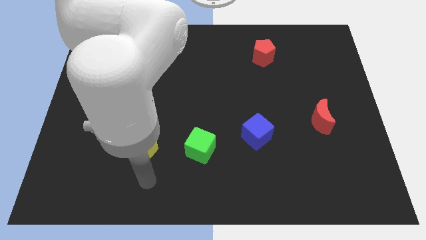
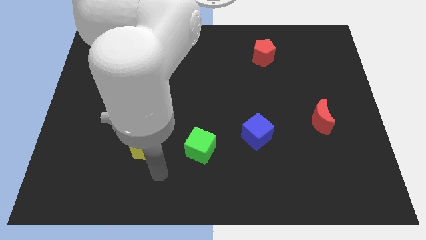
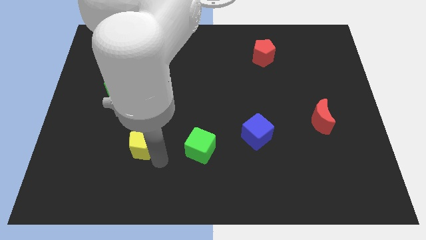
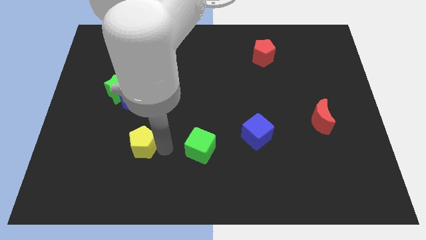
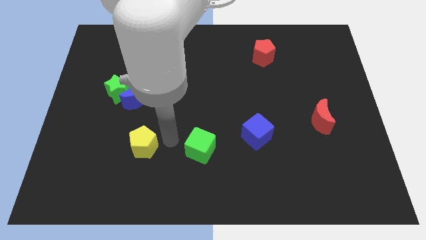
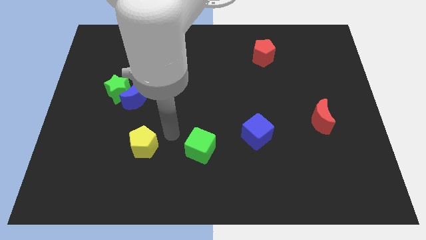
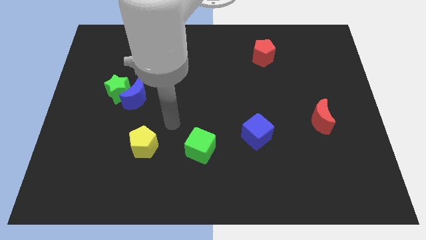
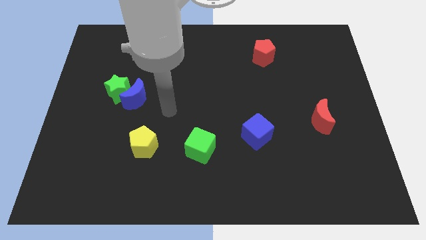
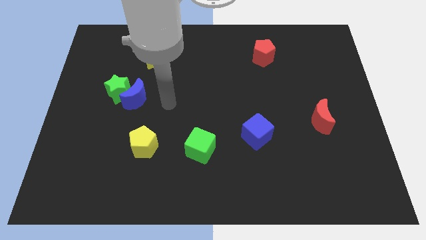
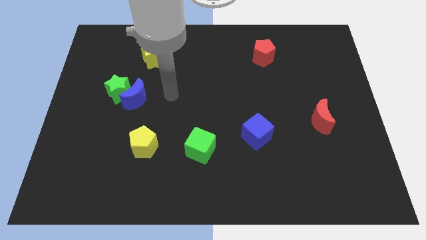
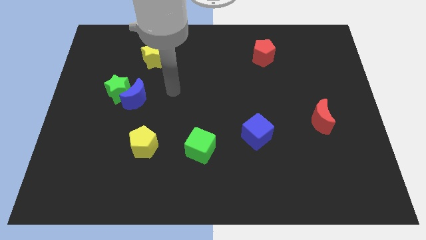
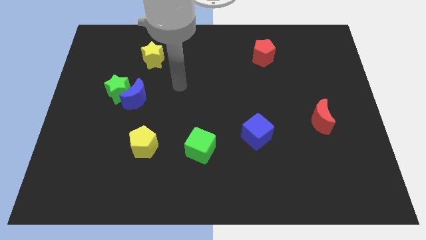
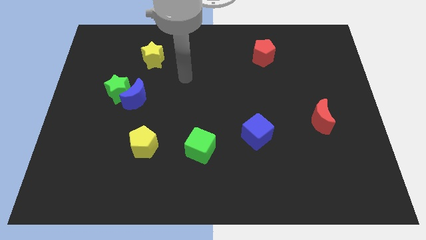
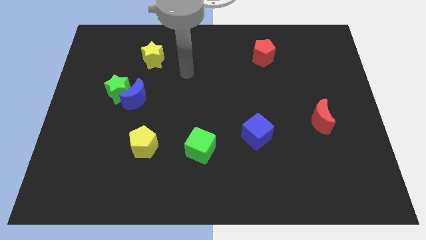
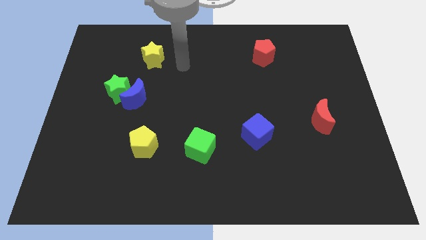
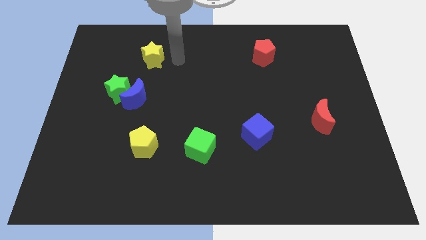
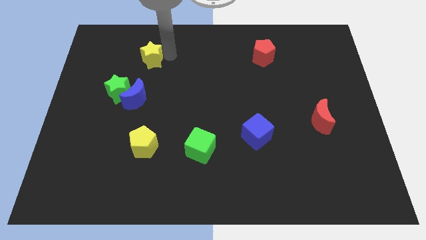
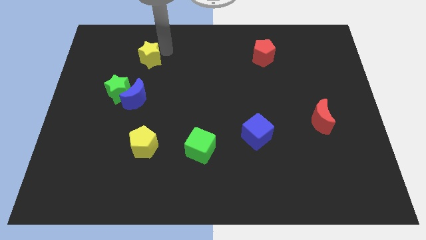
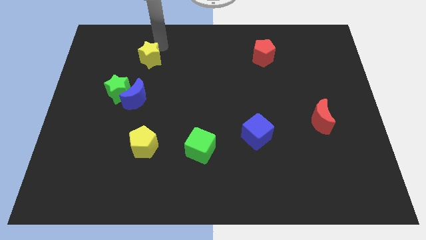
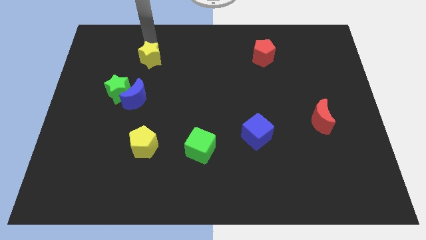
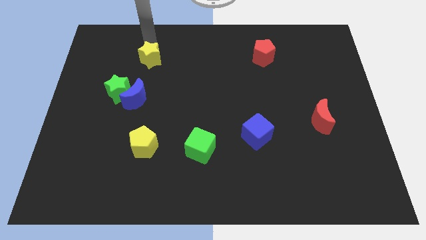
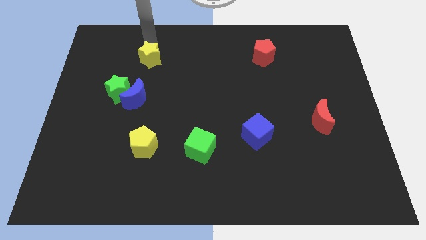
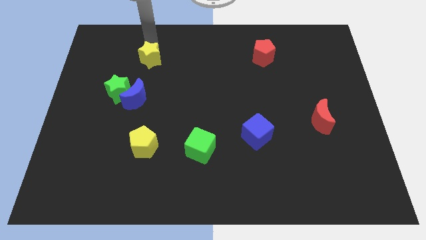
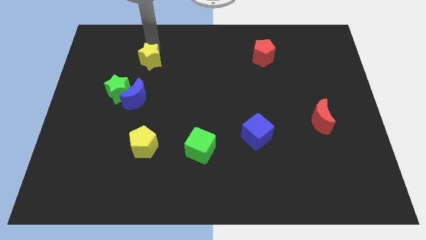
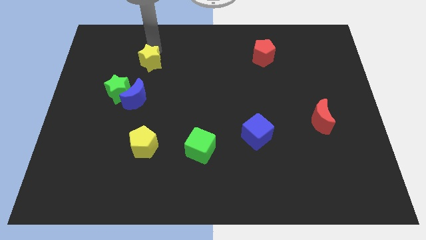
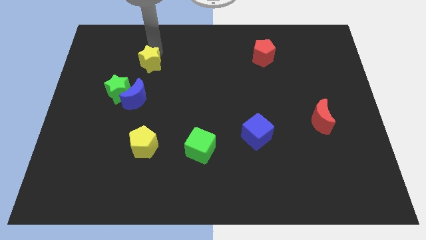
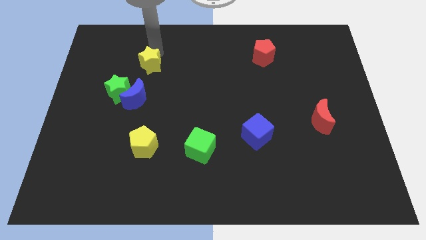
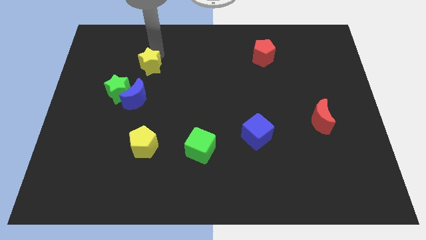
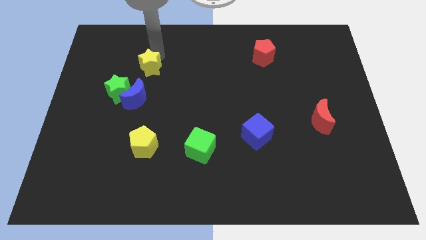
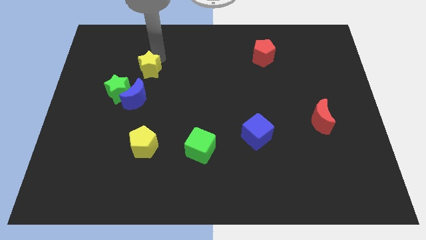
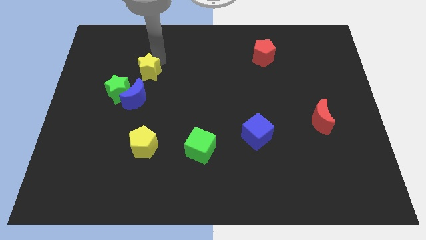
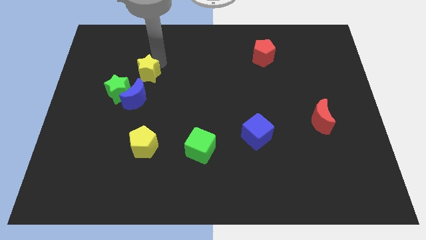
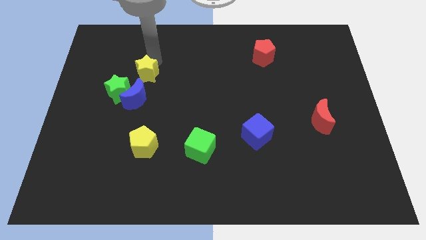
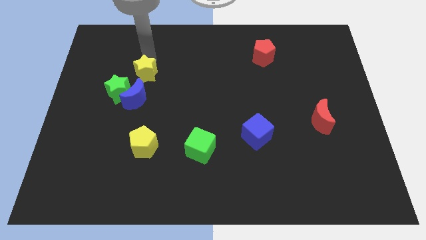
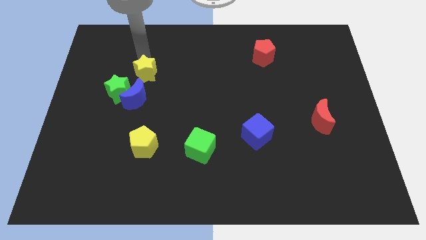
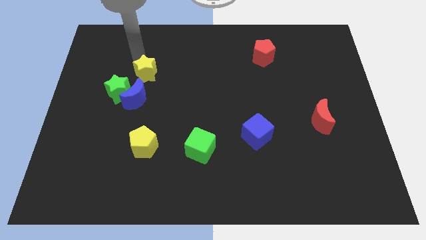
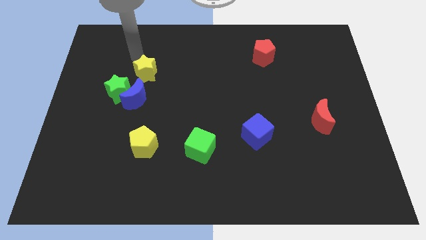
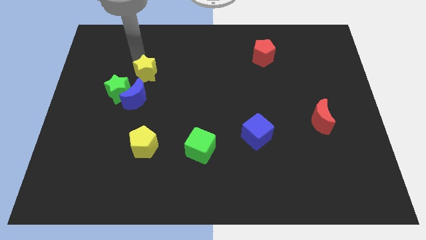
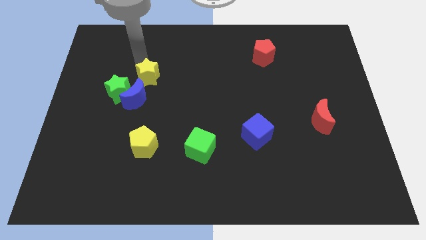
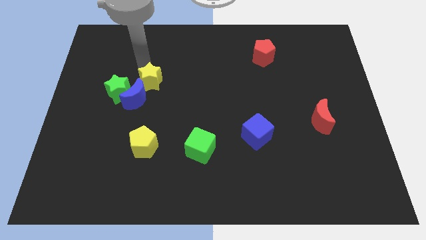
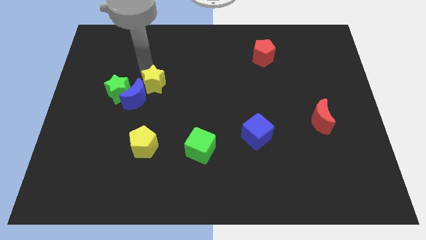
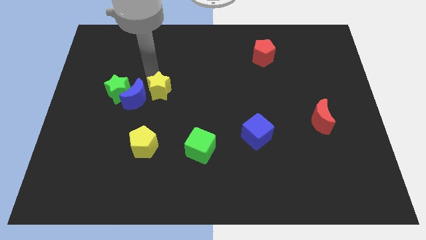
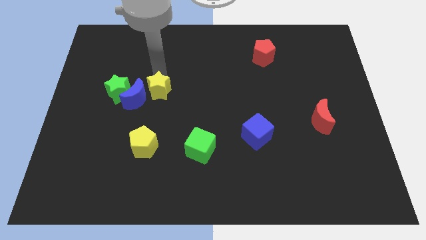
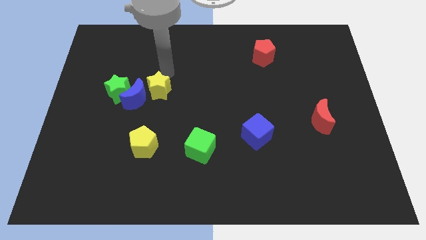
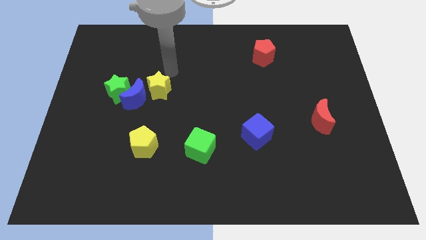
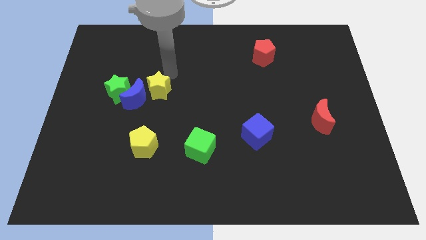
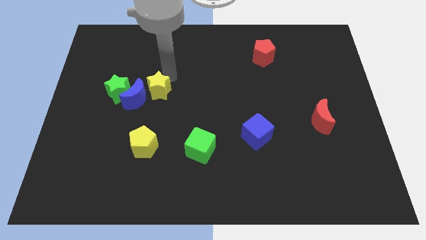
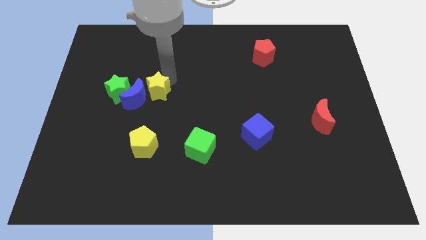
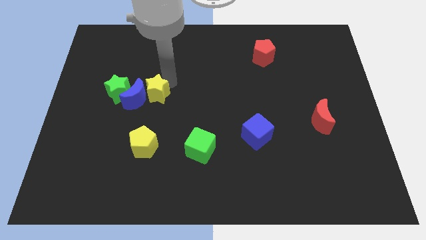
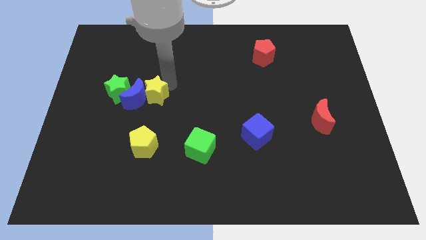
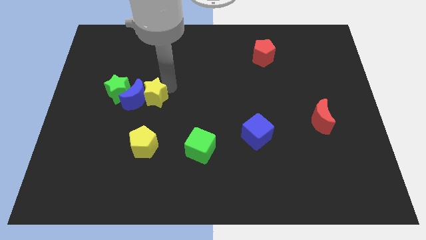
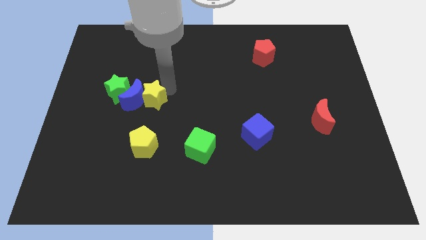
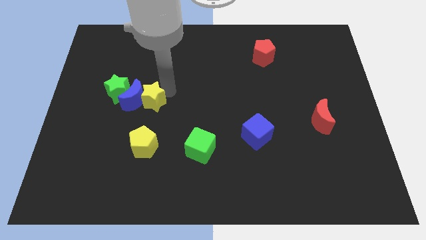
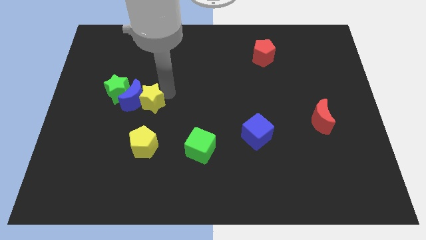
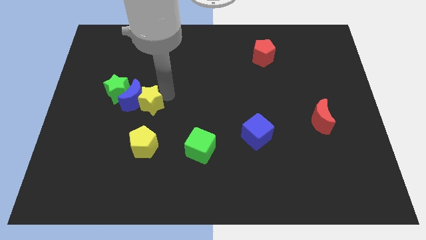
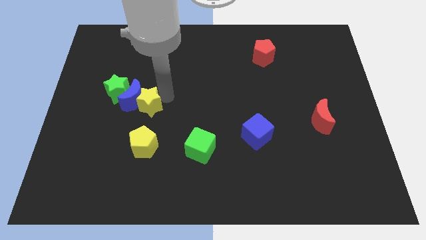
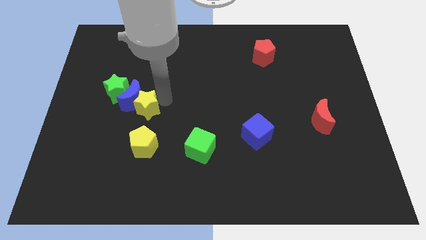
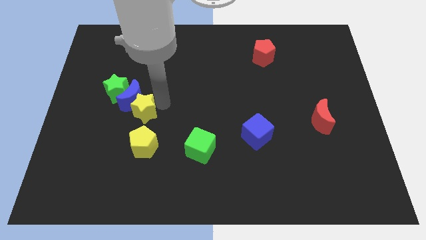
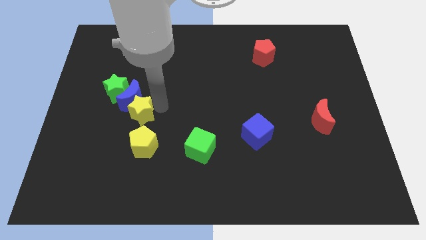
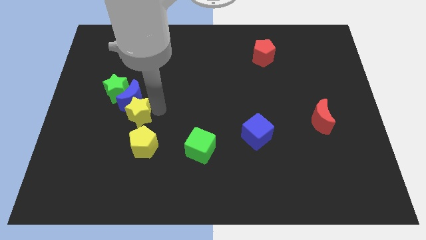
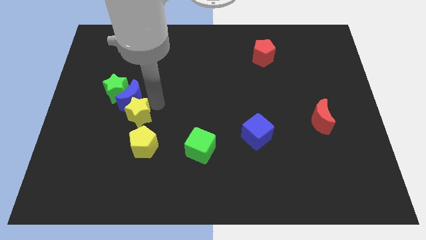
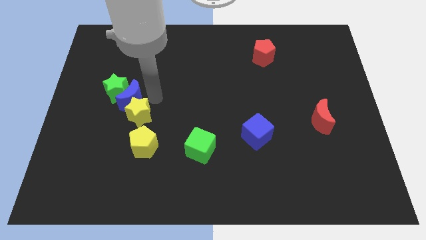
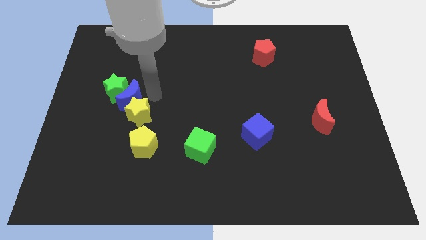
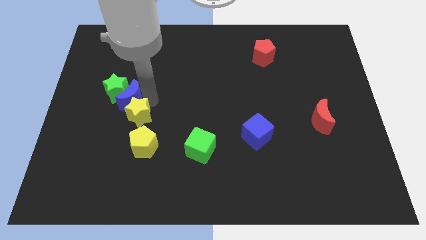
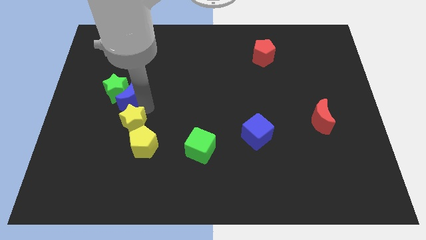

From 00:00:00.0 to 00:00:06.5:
push the yellow star downwards

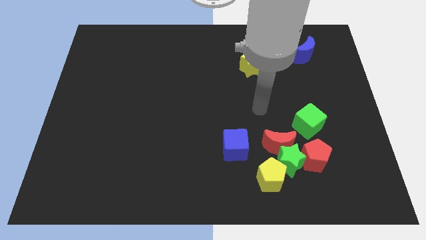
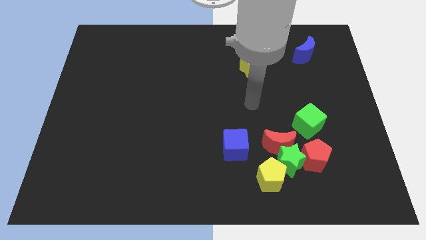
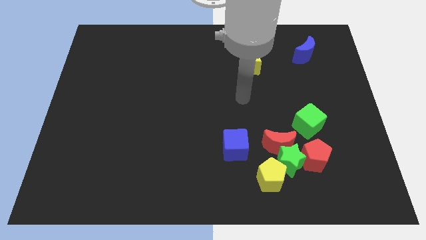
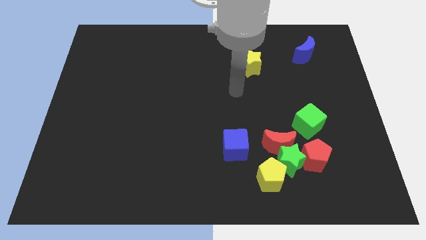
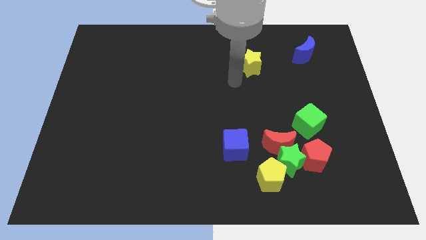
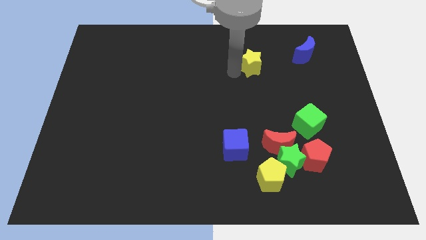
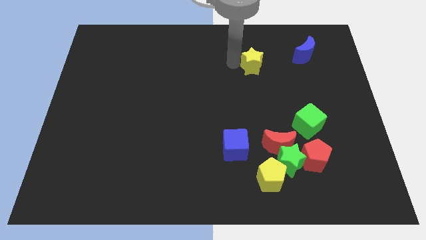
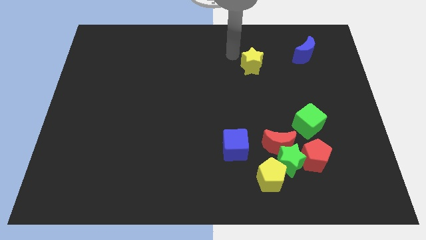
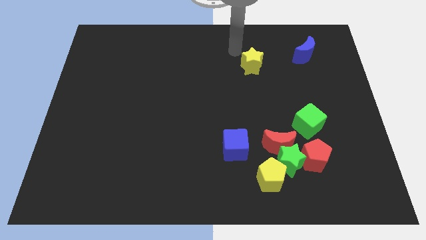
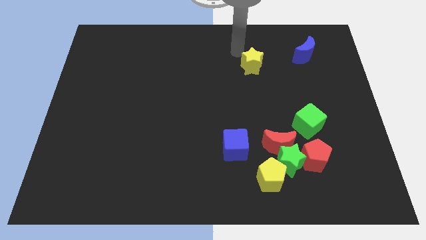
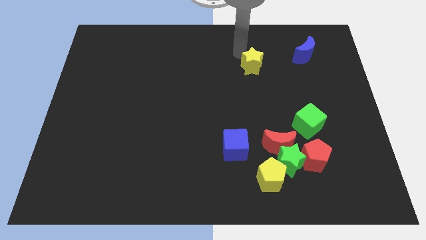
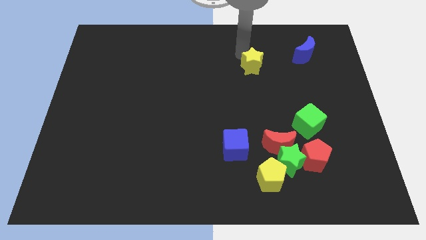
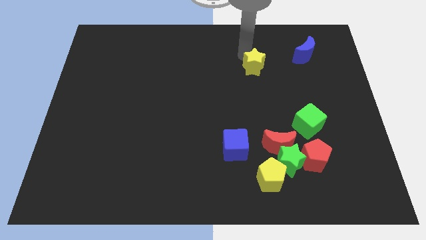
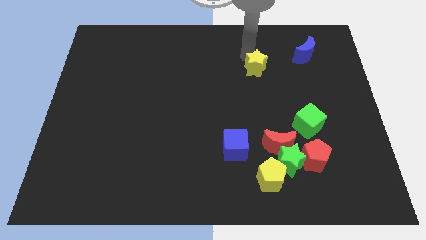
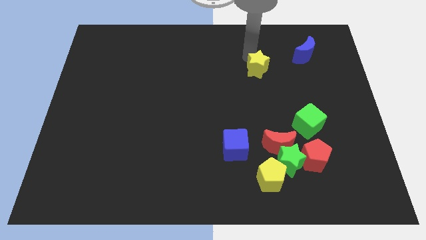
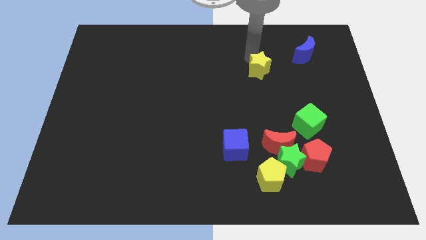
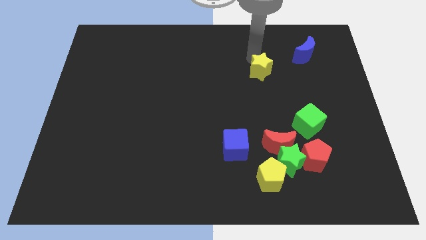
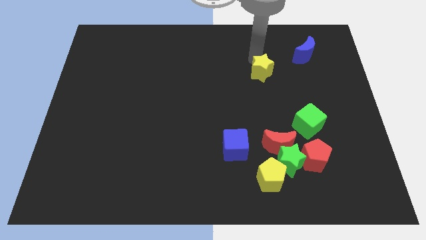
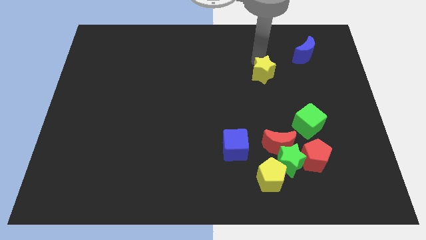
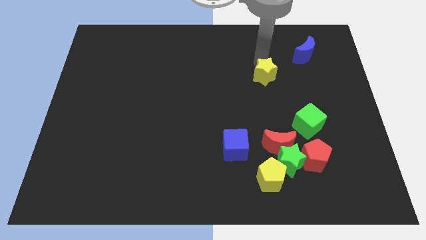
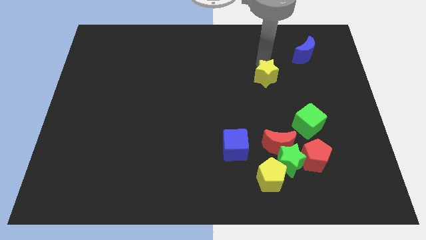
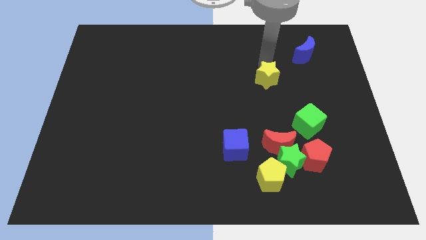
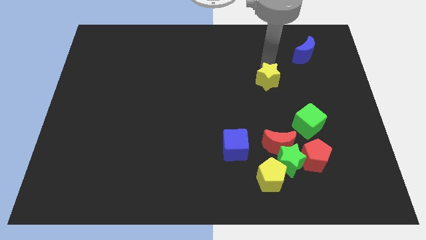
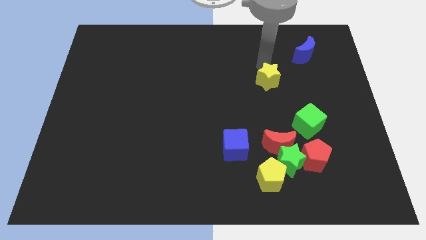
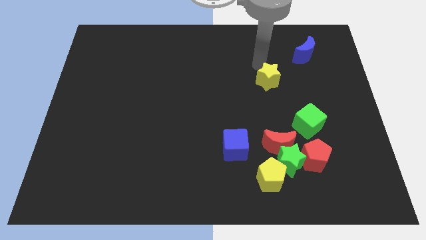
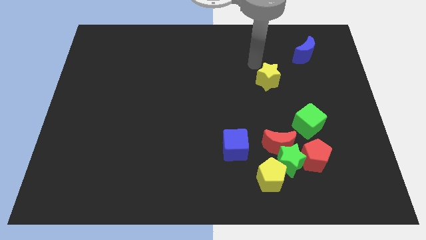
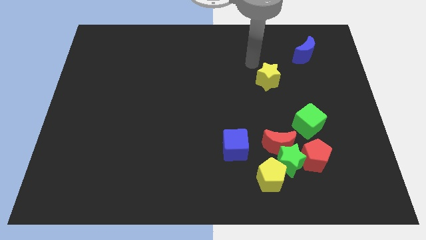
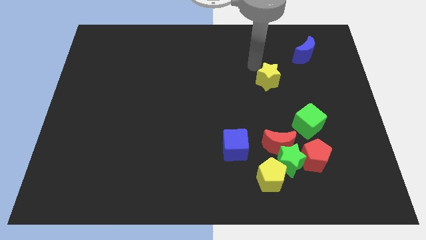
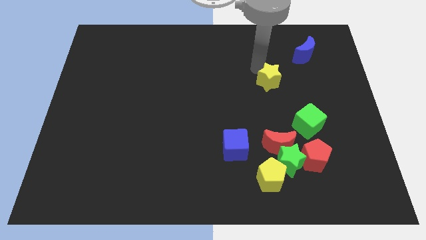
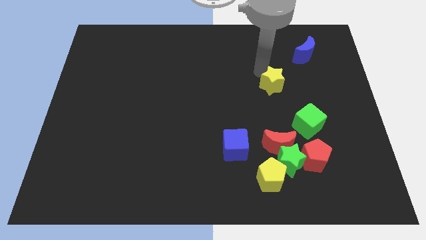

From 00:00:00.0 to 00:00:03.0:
push the yellow star down and to the right a little bit
